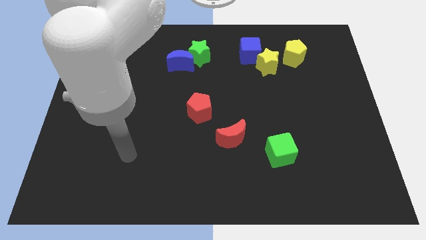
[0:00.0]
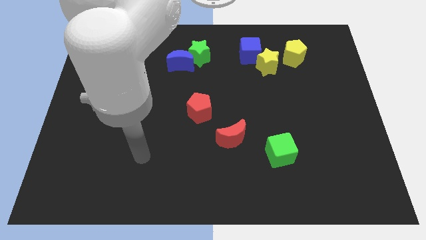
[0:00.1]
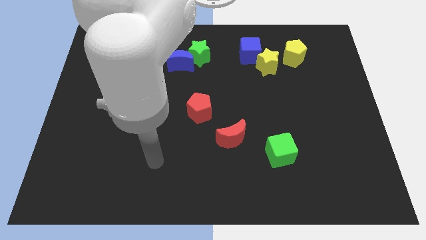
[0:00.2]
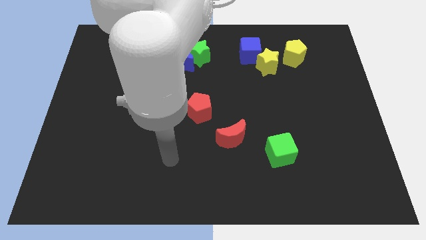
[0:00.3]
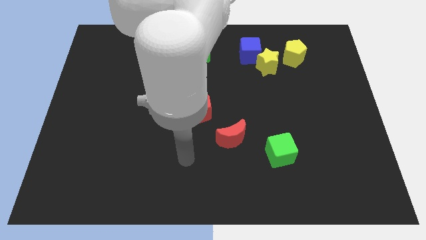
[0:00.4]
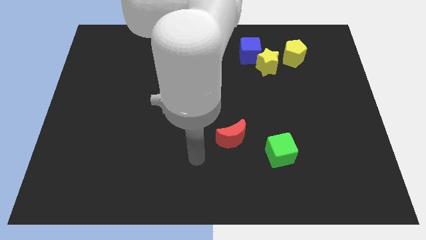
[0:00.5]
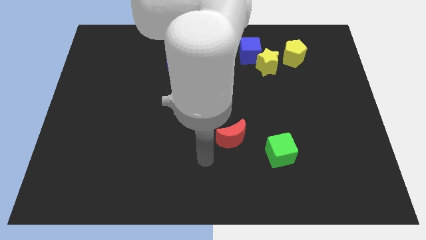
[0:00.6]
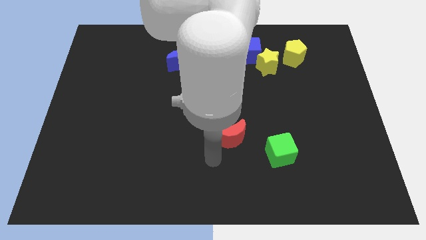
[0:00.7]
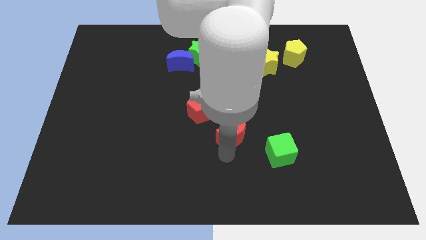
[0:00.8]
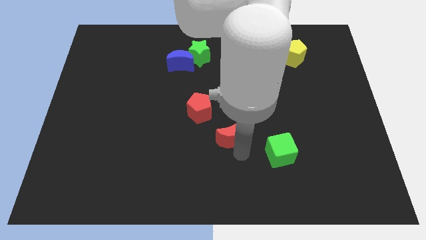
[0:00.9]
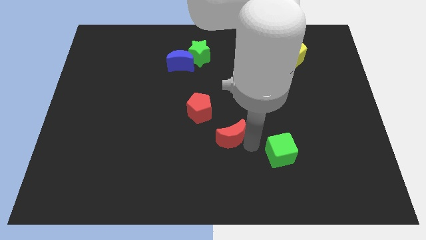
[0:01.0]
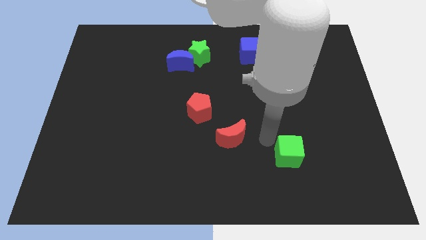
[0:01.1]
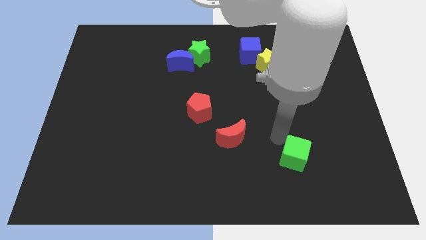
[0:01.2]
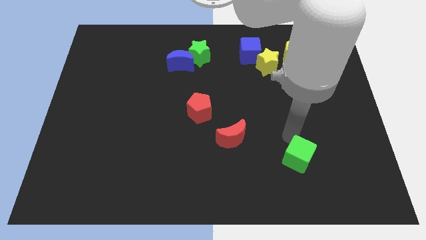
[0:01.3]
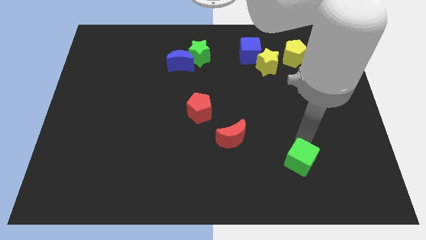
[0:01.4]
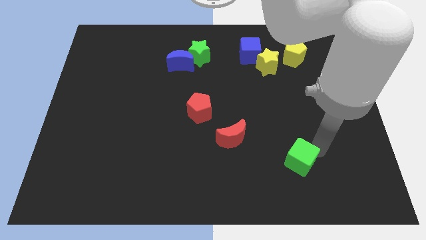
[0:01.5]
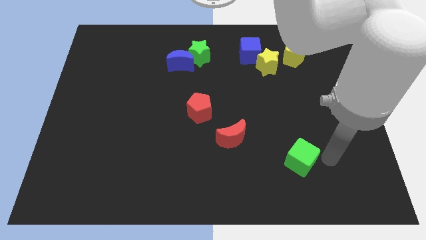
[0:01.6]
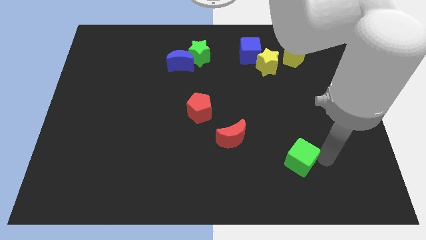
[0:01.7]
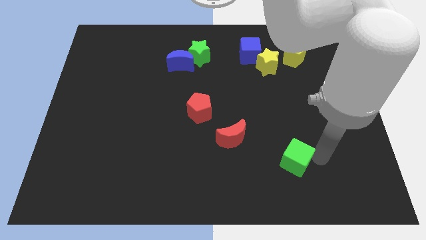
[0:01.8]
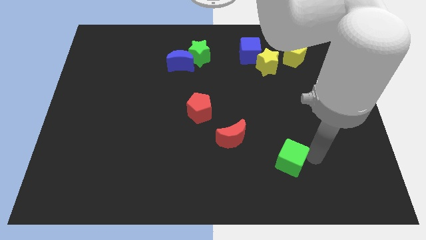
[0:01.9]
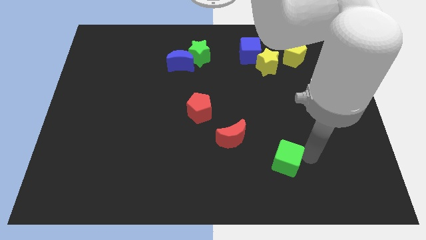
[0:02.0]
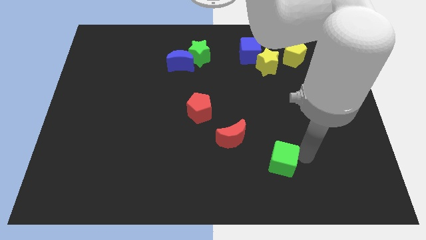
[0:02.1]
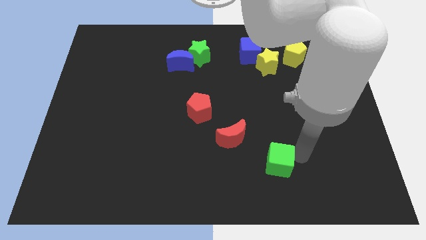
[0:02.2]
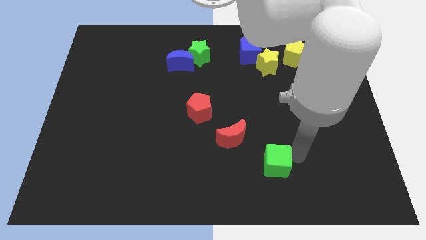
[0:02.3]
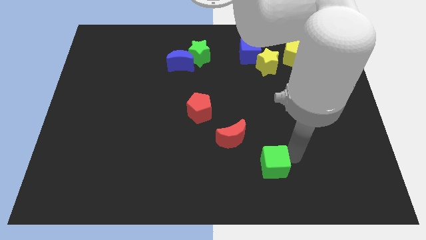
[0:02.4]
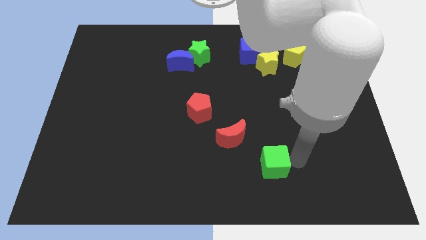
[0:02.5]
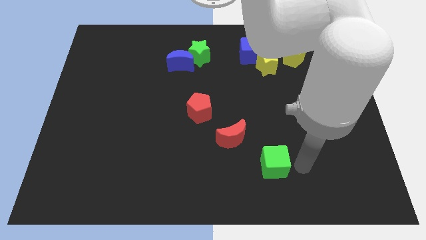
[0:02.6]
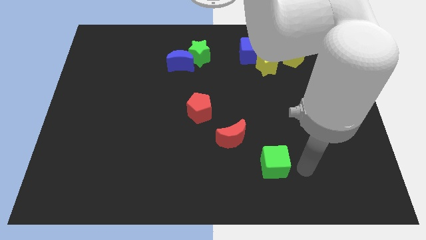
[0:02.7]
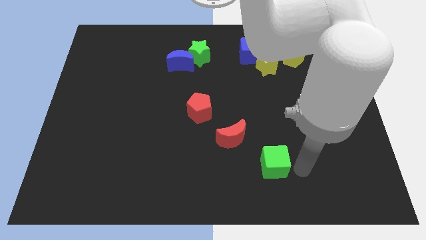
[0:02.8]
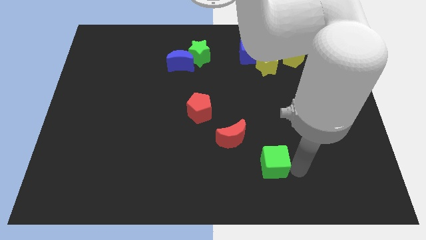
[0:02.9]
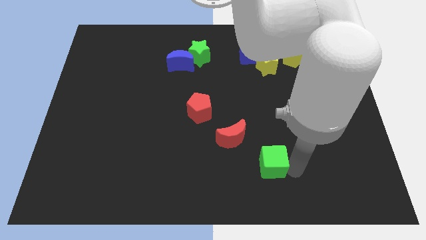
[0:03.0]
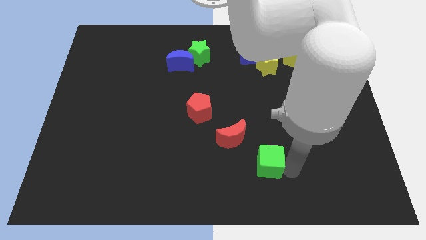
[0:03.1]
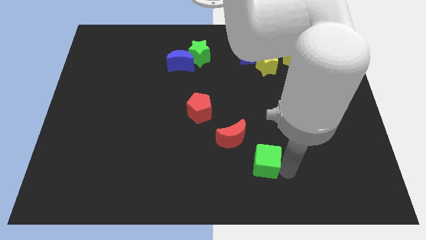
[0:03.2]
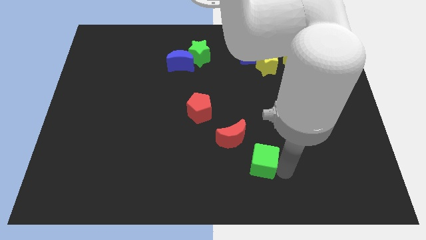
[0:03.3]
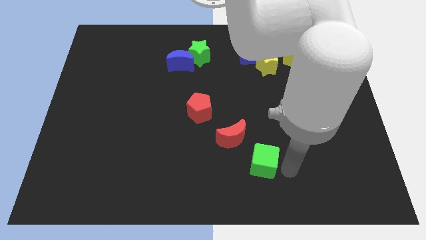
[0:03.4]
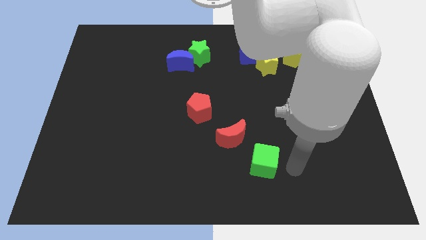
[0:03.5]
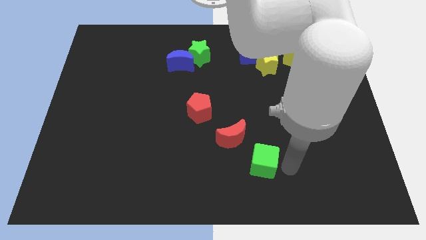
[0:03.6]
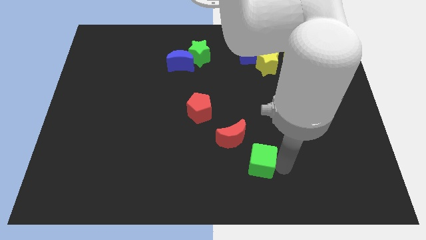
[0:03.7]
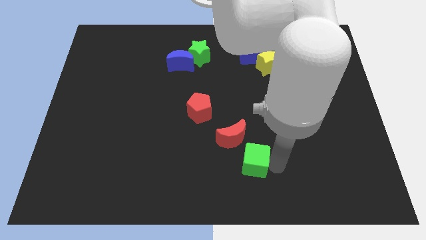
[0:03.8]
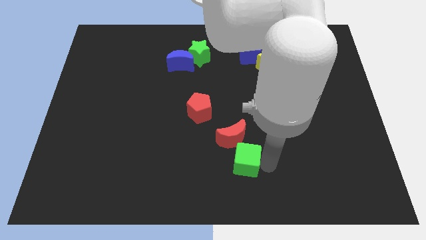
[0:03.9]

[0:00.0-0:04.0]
move the green cube somewhat to the left

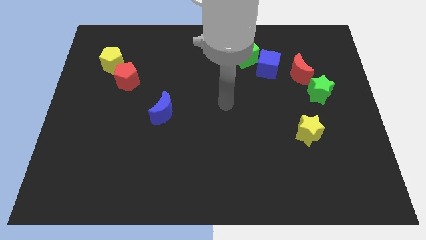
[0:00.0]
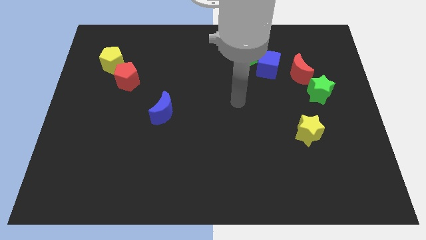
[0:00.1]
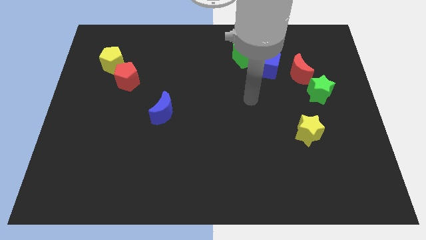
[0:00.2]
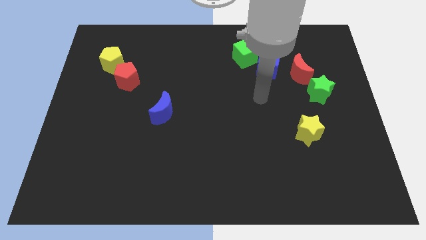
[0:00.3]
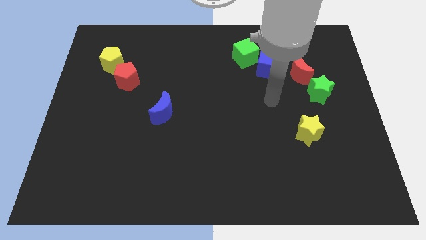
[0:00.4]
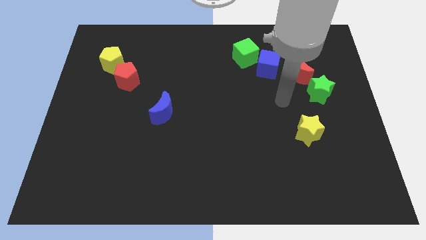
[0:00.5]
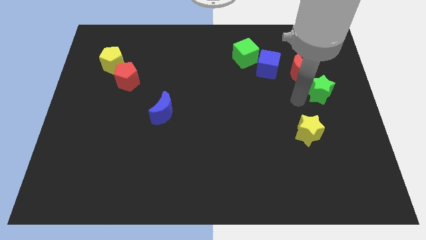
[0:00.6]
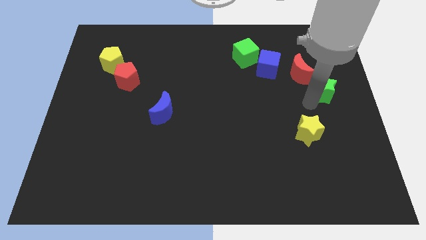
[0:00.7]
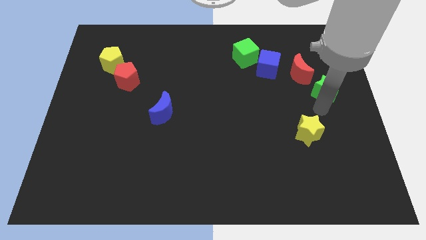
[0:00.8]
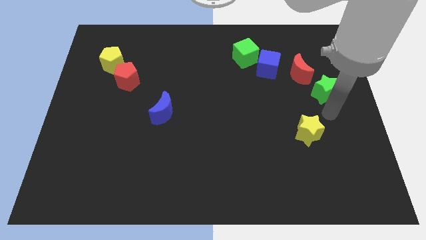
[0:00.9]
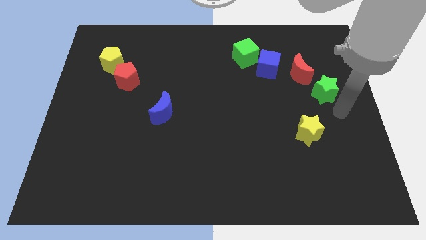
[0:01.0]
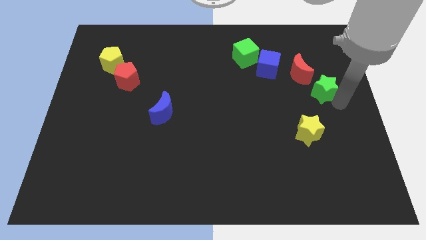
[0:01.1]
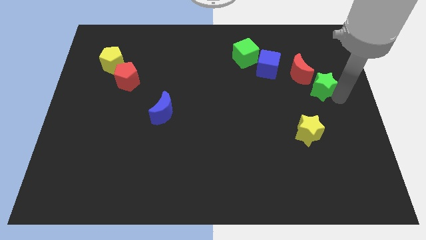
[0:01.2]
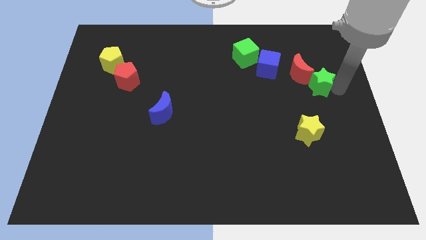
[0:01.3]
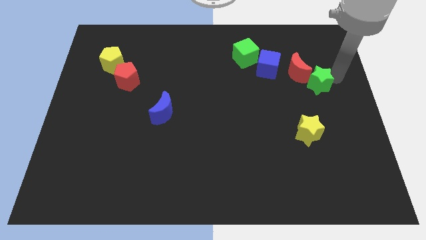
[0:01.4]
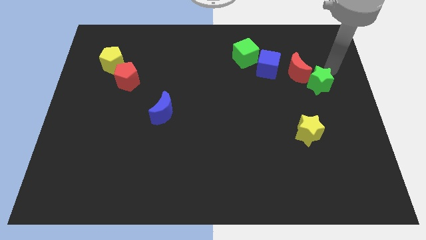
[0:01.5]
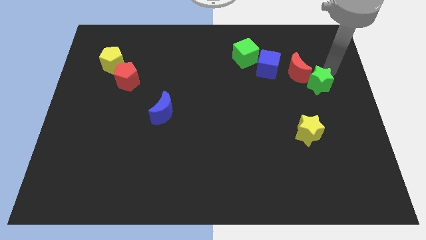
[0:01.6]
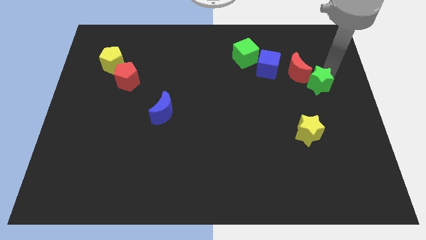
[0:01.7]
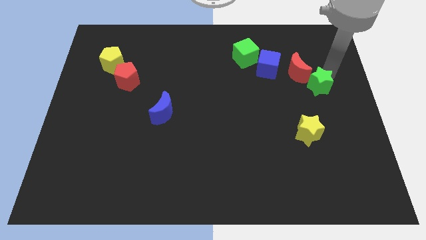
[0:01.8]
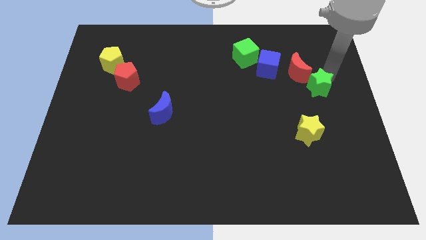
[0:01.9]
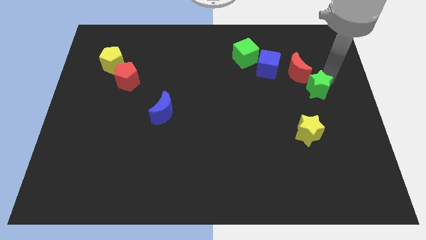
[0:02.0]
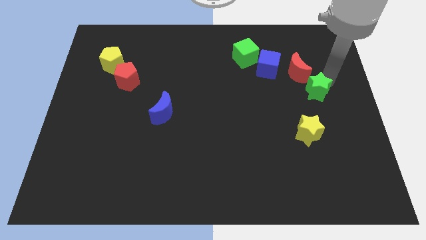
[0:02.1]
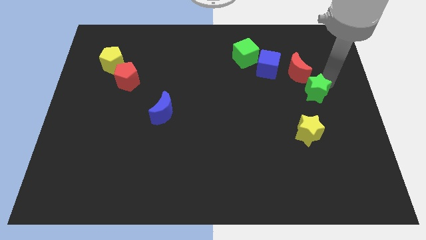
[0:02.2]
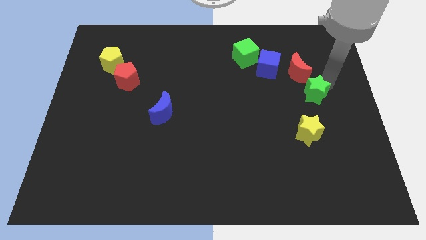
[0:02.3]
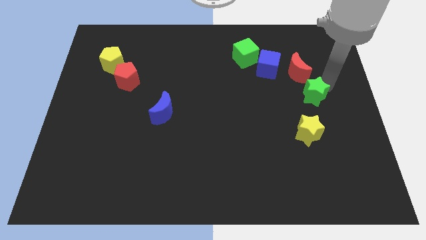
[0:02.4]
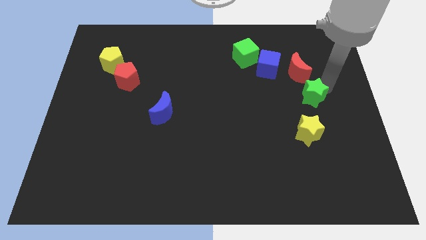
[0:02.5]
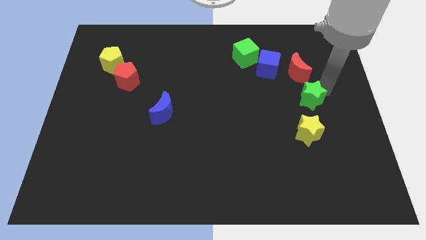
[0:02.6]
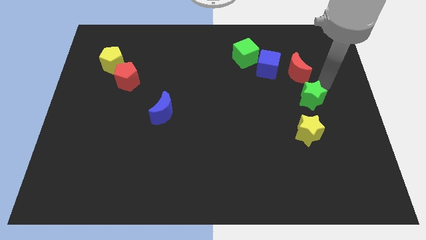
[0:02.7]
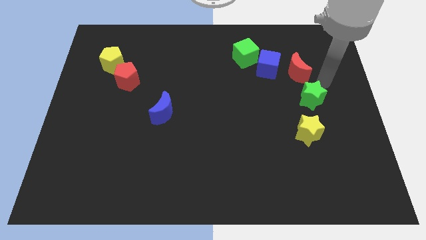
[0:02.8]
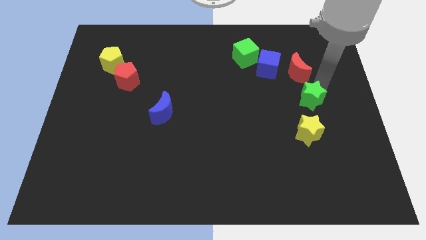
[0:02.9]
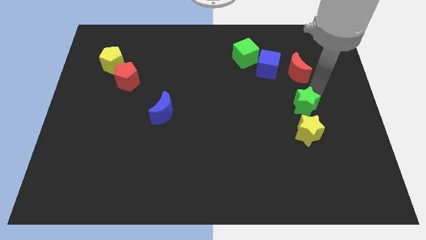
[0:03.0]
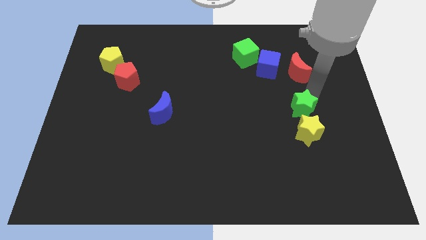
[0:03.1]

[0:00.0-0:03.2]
push the green star down and then to the left a bit

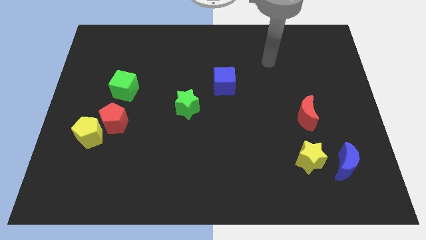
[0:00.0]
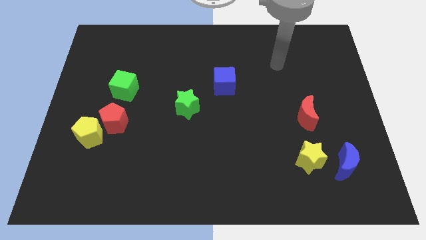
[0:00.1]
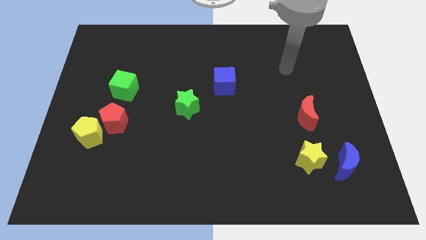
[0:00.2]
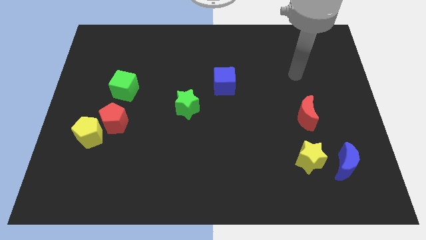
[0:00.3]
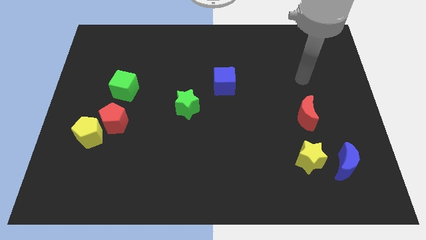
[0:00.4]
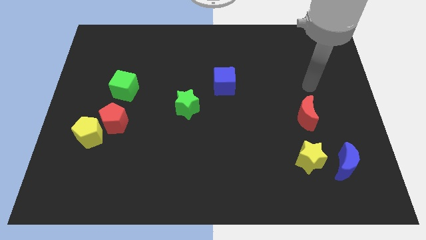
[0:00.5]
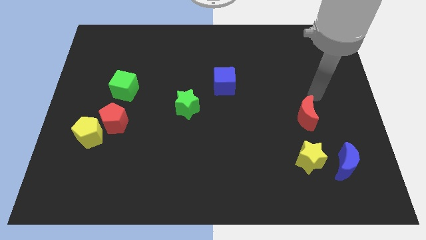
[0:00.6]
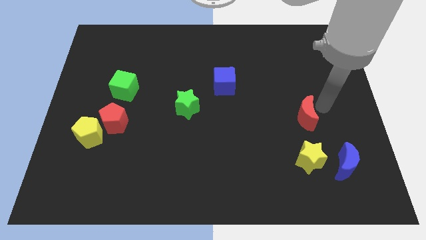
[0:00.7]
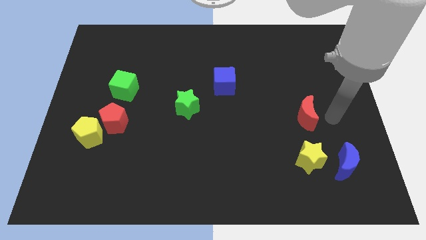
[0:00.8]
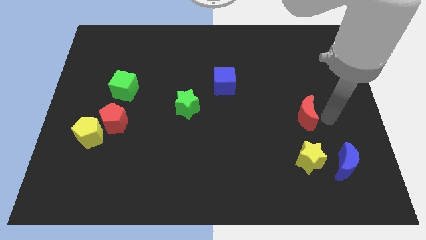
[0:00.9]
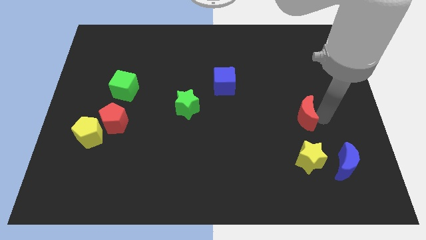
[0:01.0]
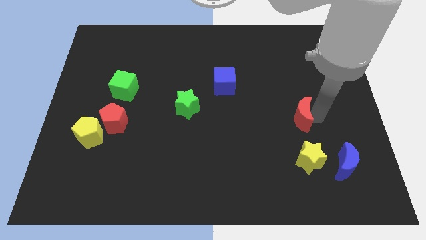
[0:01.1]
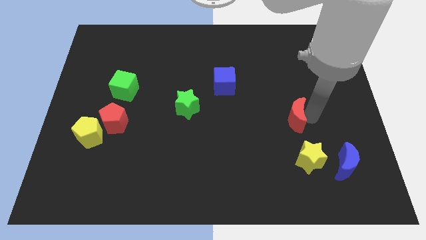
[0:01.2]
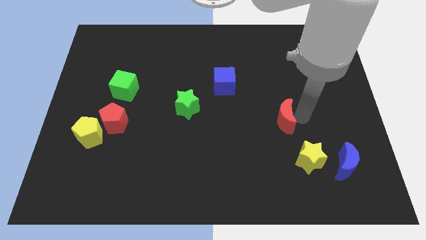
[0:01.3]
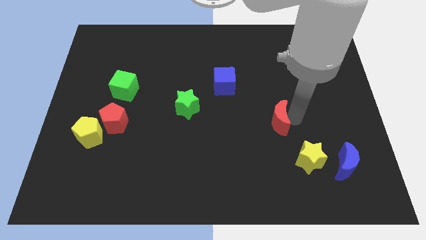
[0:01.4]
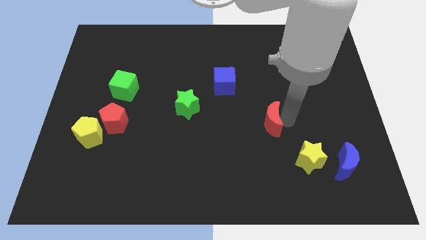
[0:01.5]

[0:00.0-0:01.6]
slightly push the red moon left
